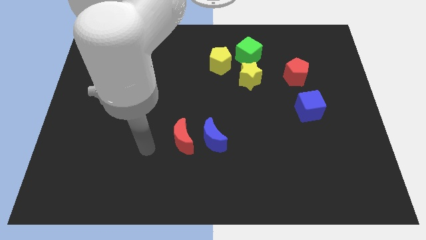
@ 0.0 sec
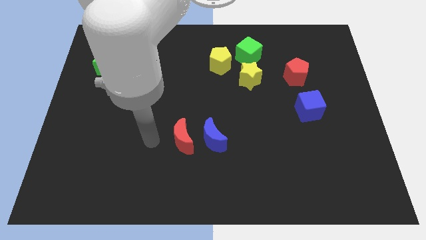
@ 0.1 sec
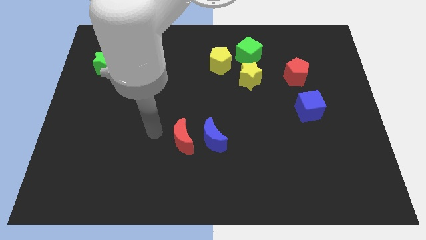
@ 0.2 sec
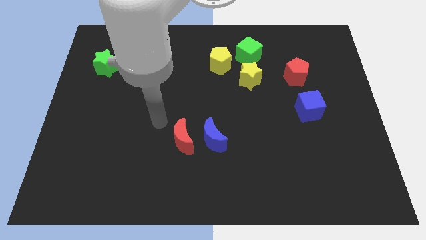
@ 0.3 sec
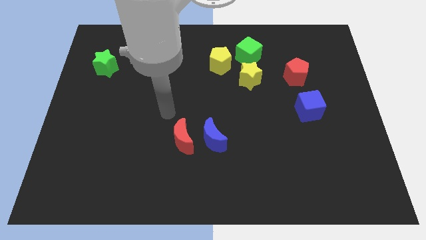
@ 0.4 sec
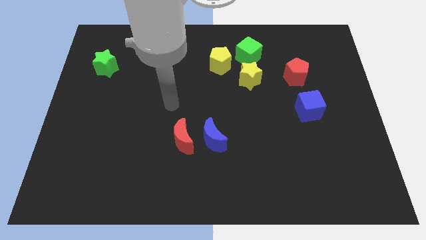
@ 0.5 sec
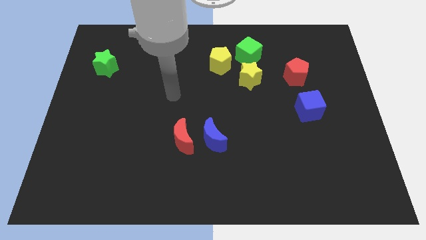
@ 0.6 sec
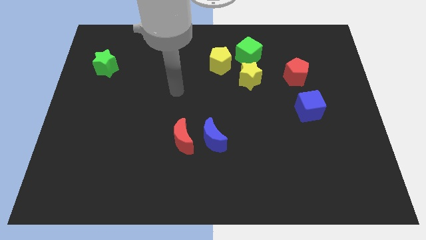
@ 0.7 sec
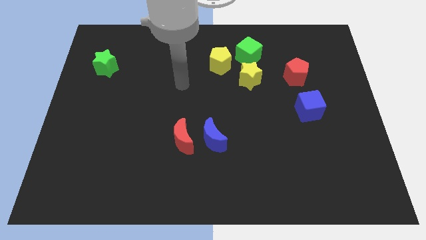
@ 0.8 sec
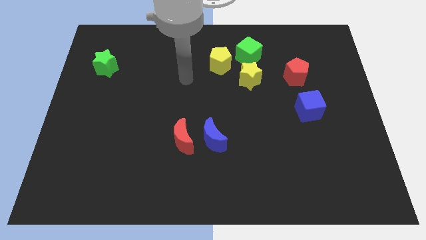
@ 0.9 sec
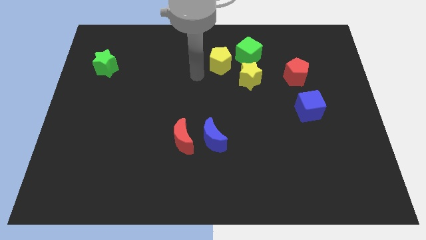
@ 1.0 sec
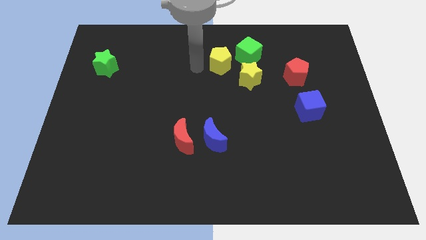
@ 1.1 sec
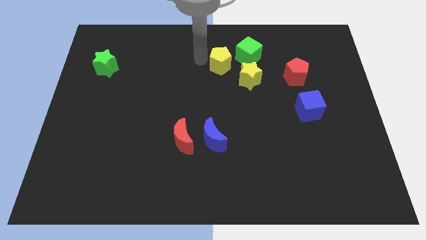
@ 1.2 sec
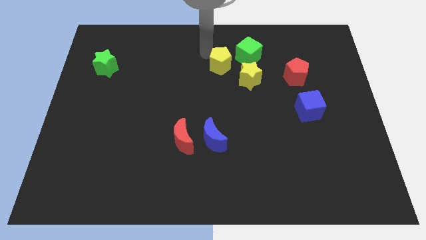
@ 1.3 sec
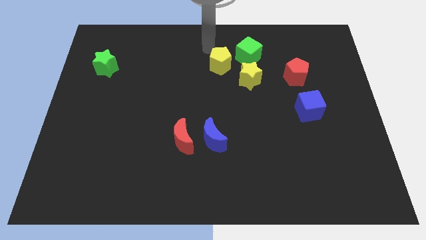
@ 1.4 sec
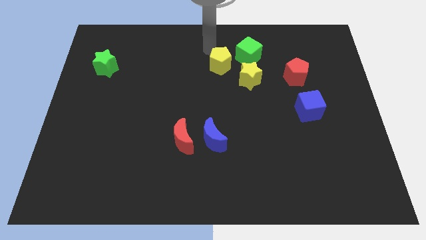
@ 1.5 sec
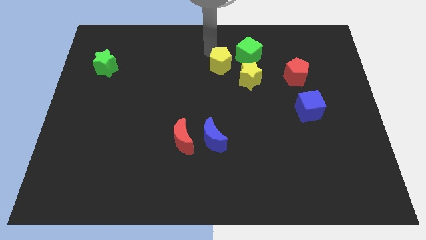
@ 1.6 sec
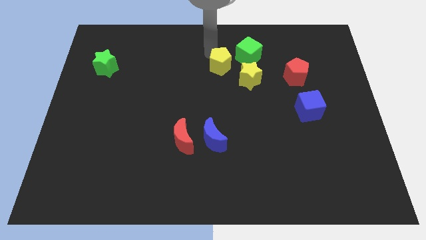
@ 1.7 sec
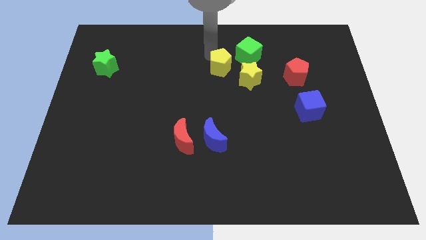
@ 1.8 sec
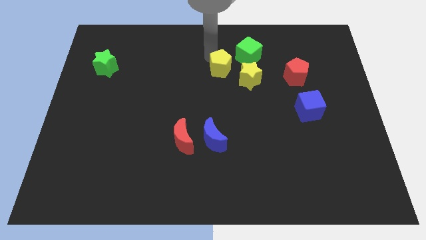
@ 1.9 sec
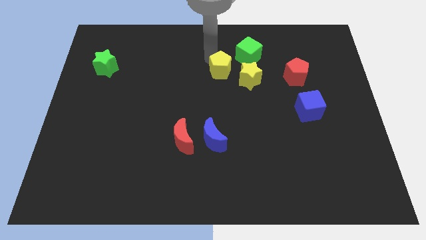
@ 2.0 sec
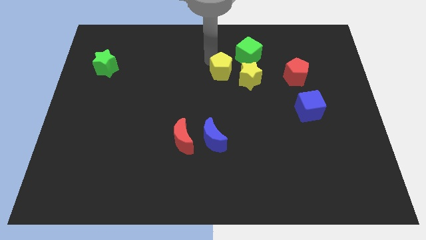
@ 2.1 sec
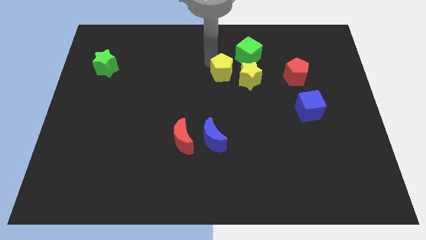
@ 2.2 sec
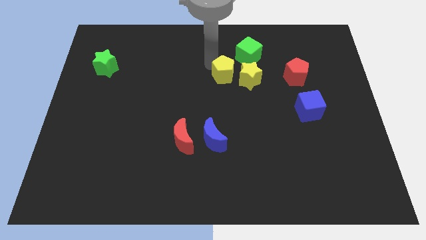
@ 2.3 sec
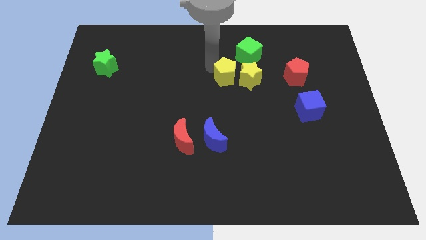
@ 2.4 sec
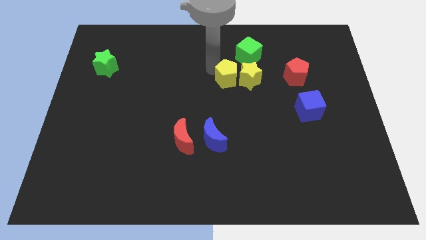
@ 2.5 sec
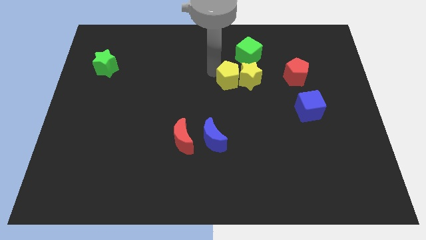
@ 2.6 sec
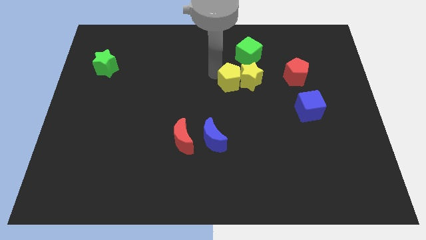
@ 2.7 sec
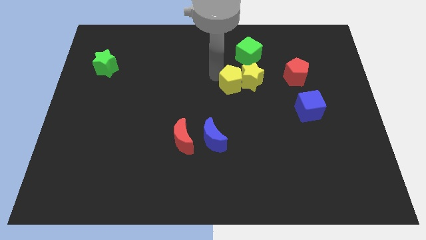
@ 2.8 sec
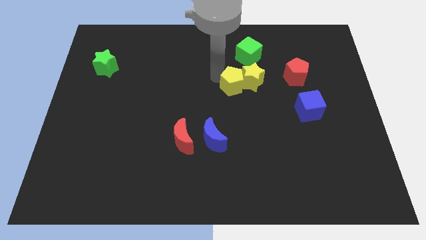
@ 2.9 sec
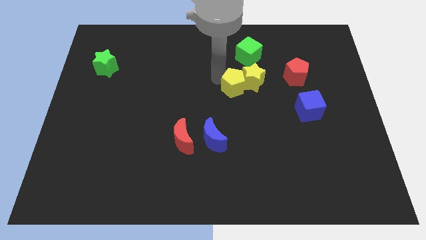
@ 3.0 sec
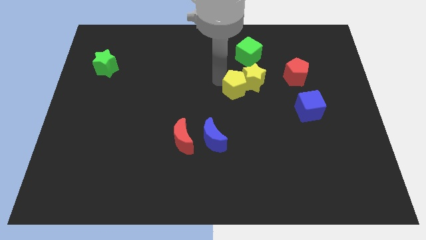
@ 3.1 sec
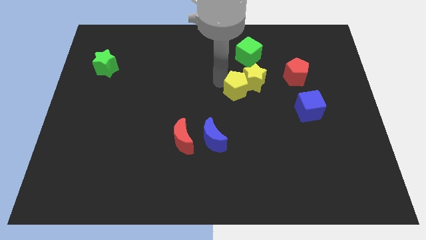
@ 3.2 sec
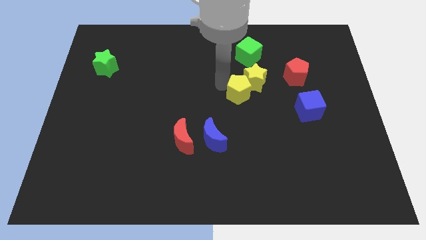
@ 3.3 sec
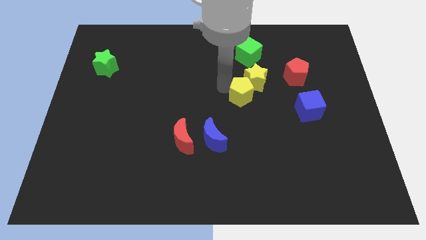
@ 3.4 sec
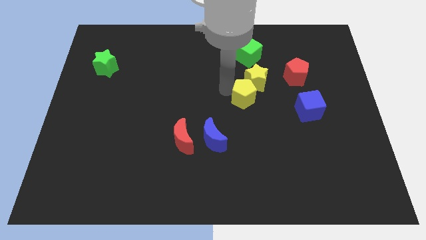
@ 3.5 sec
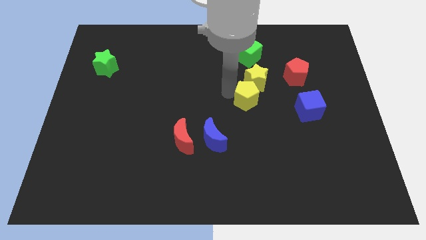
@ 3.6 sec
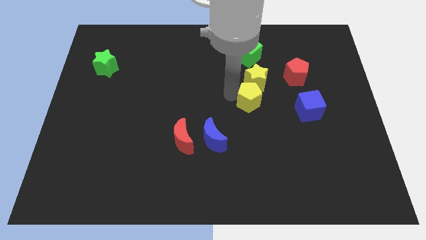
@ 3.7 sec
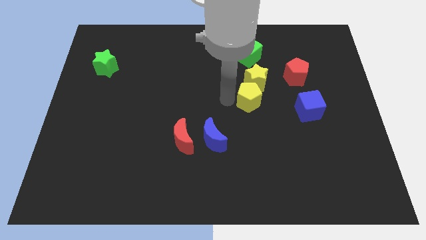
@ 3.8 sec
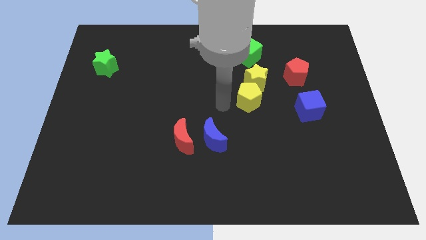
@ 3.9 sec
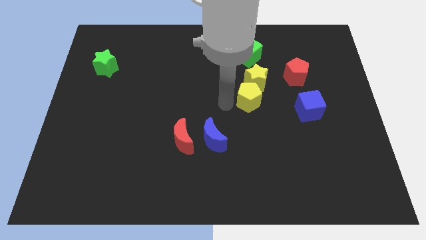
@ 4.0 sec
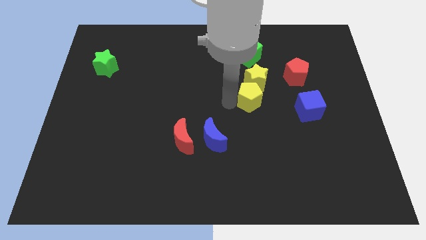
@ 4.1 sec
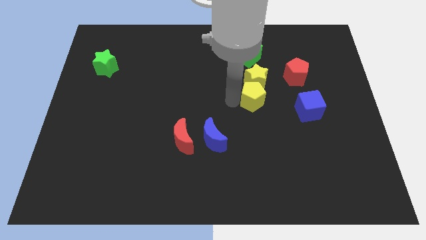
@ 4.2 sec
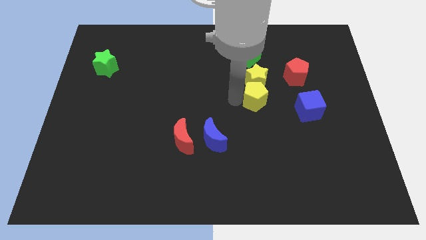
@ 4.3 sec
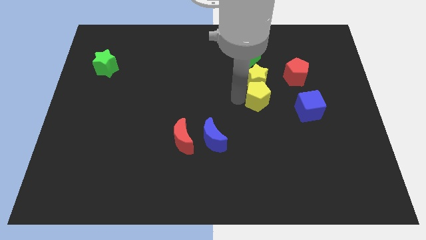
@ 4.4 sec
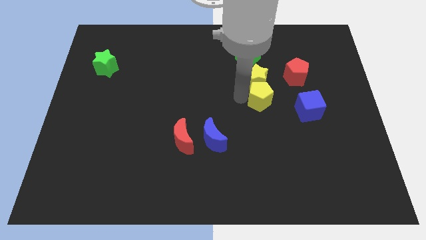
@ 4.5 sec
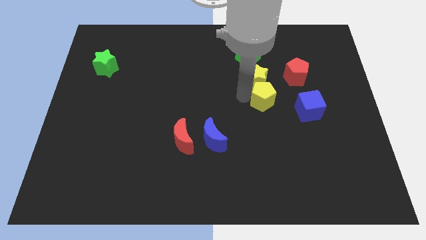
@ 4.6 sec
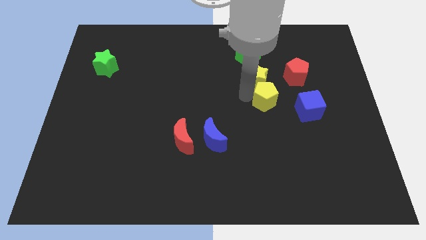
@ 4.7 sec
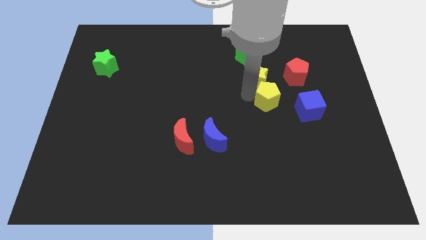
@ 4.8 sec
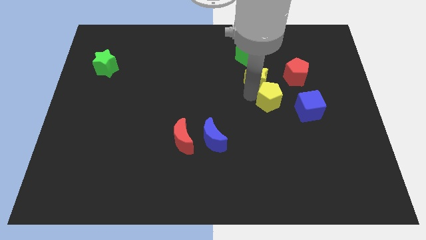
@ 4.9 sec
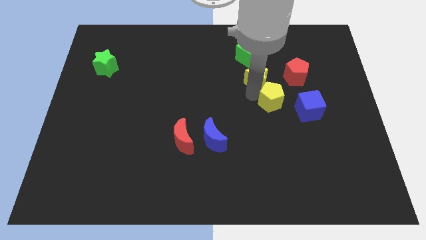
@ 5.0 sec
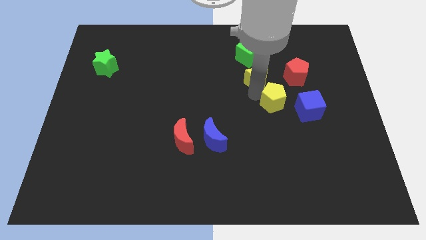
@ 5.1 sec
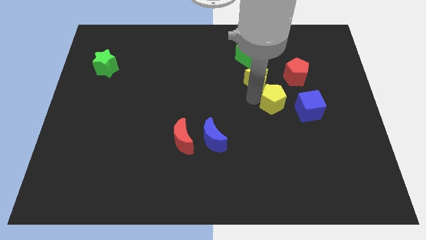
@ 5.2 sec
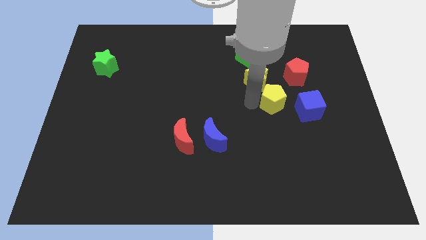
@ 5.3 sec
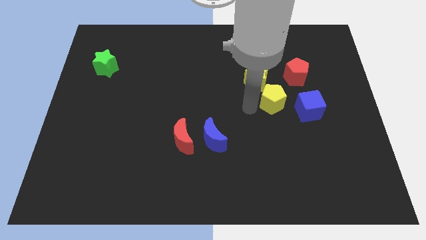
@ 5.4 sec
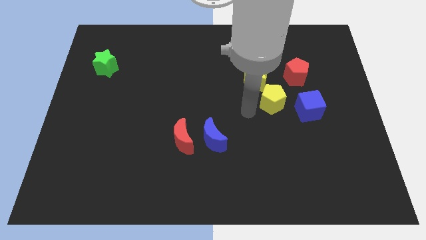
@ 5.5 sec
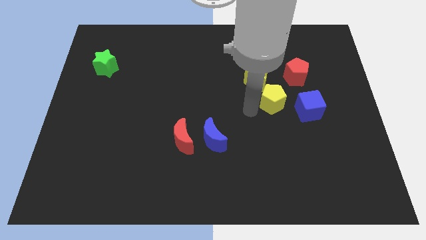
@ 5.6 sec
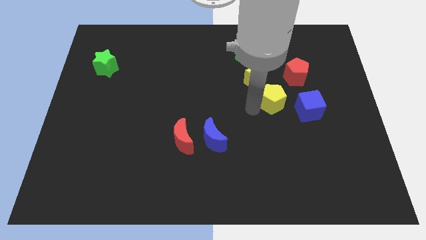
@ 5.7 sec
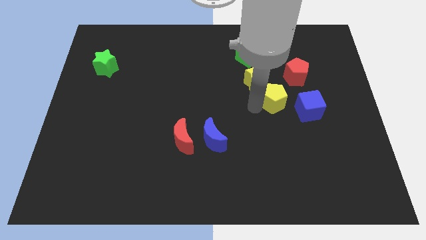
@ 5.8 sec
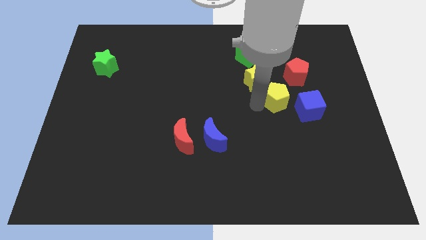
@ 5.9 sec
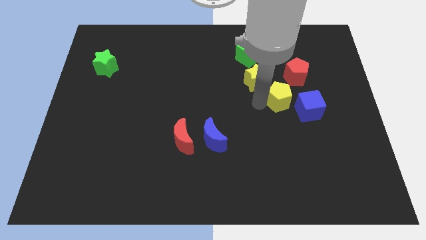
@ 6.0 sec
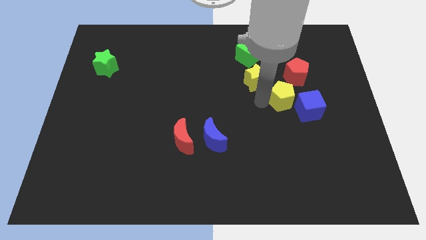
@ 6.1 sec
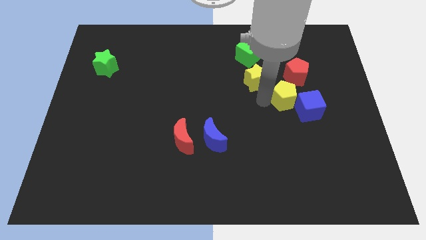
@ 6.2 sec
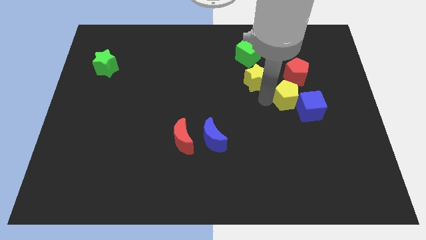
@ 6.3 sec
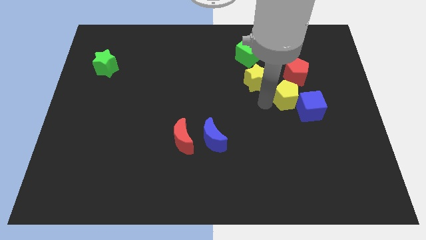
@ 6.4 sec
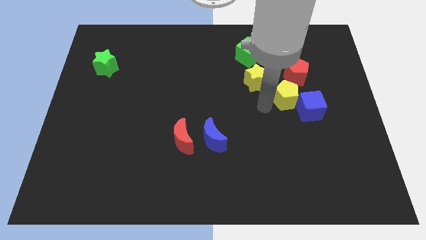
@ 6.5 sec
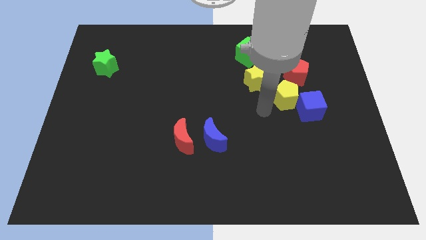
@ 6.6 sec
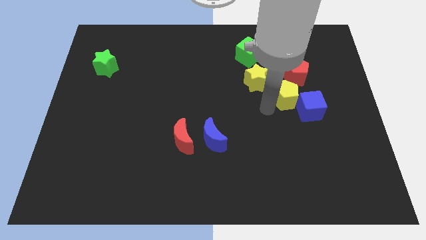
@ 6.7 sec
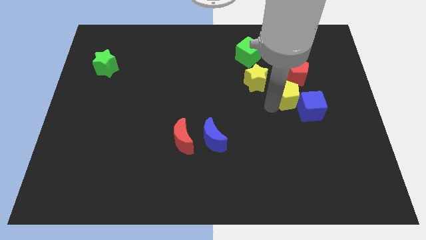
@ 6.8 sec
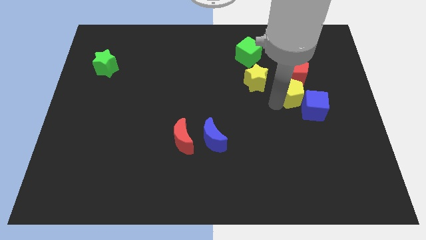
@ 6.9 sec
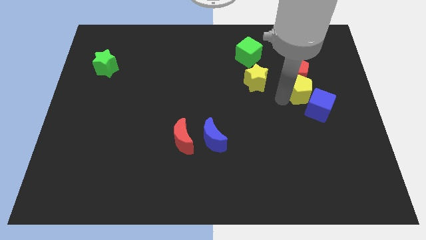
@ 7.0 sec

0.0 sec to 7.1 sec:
move the yellow pentagon to the bottom right of the red pentagon
